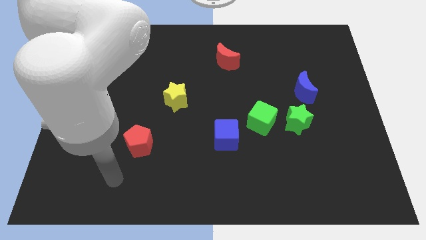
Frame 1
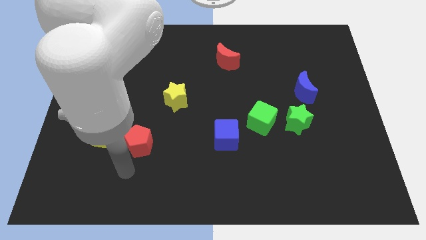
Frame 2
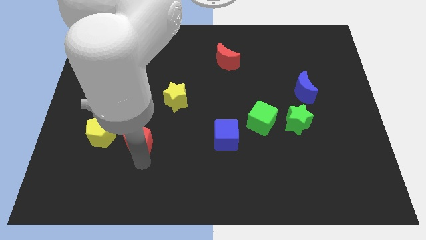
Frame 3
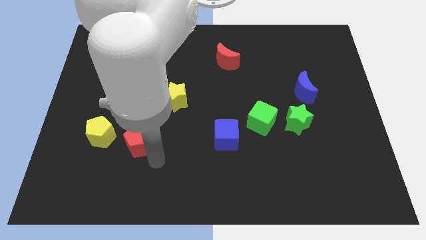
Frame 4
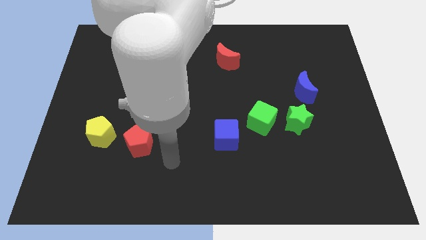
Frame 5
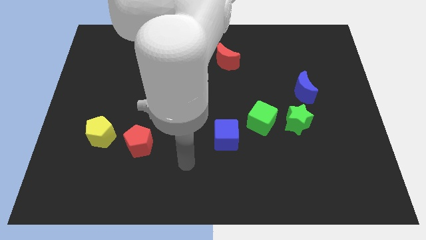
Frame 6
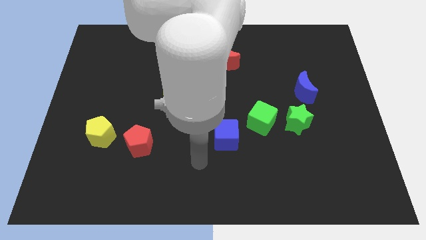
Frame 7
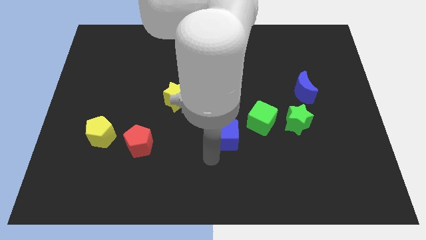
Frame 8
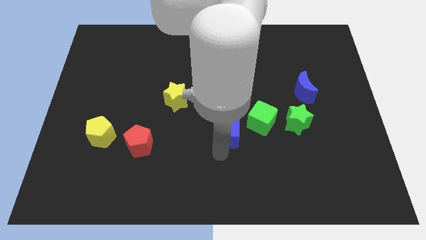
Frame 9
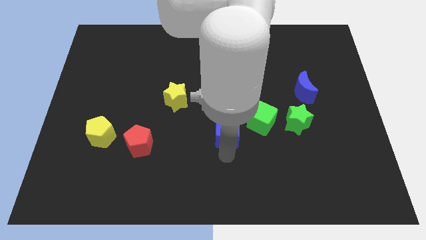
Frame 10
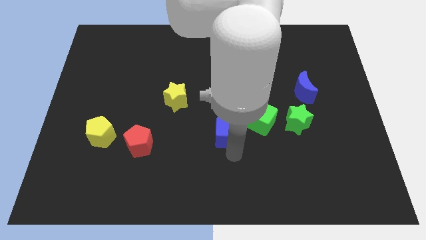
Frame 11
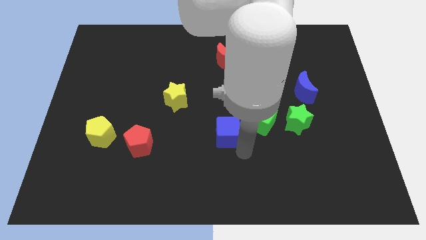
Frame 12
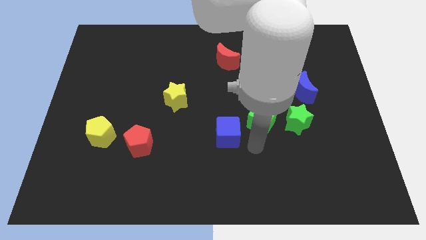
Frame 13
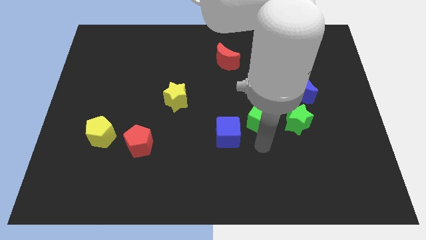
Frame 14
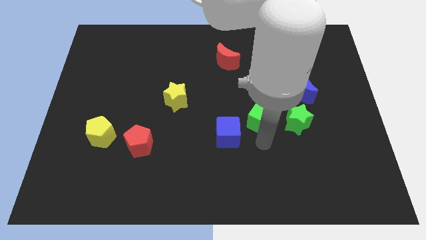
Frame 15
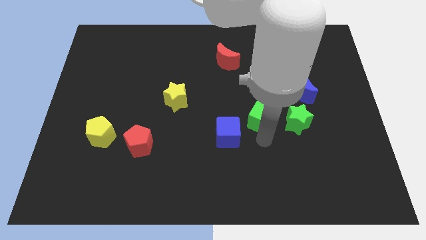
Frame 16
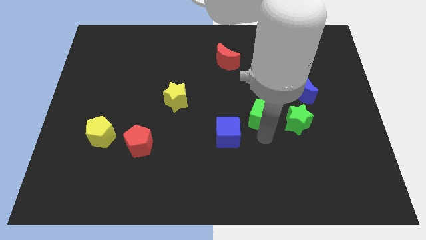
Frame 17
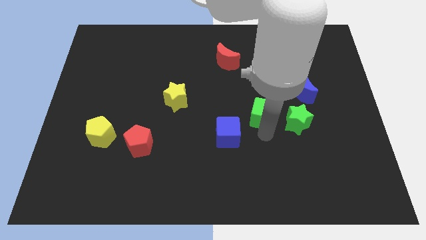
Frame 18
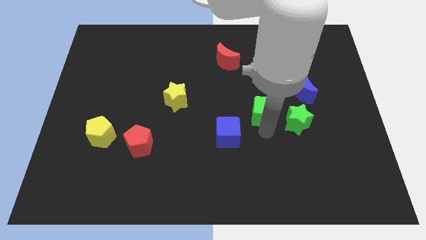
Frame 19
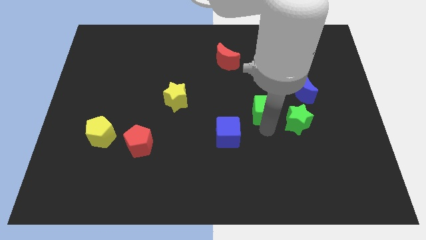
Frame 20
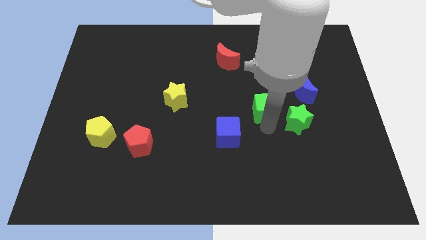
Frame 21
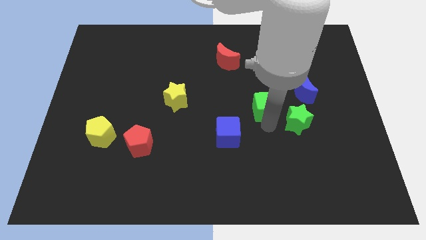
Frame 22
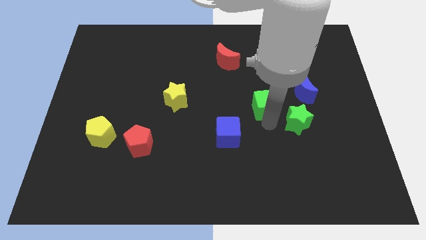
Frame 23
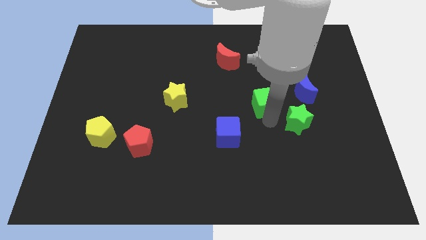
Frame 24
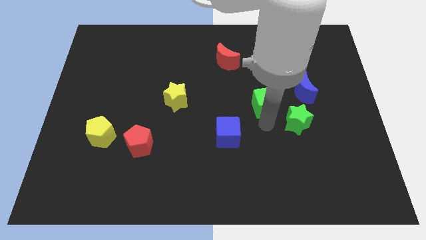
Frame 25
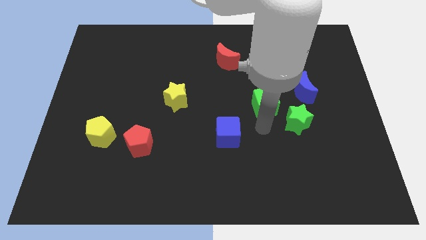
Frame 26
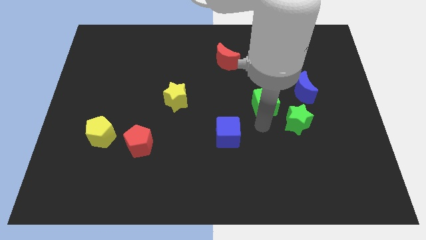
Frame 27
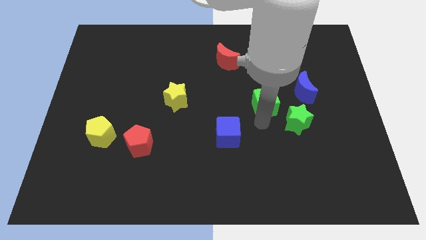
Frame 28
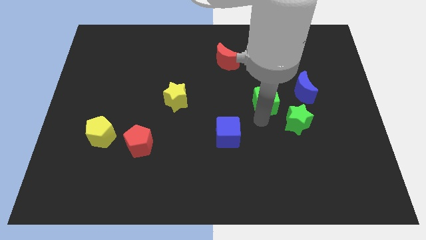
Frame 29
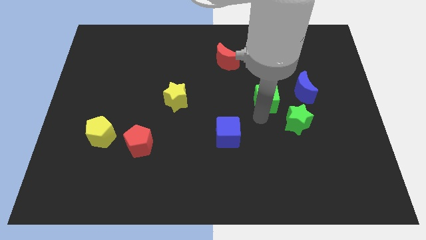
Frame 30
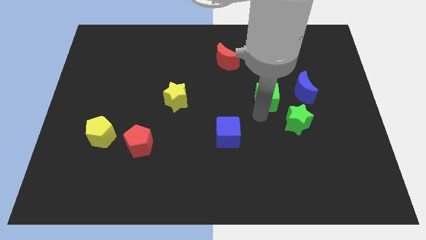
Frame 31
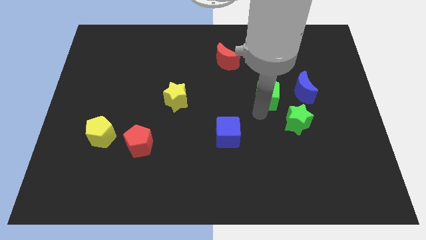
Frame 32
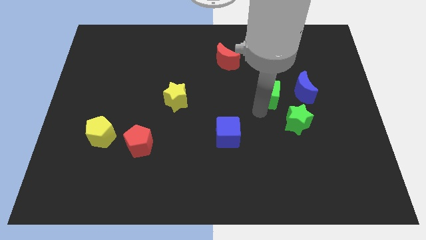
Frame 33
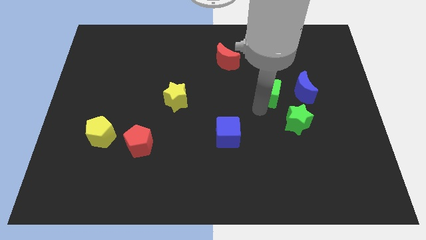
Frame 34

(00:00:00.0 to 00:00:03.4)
move the green cube away from the green star and blue cube

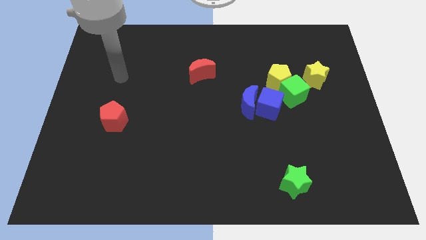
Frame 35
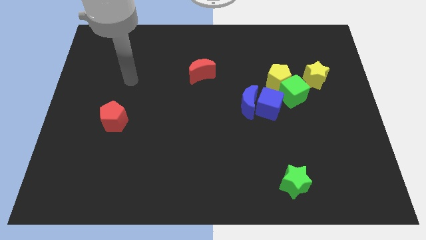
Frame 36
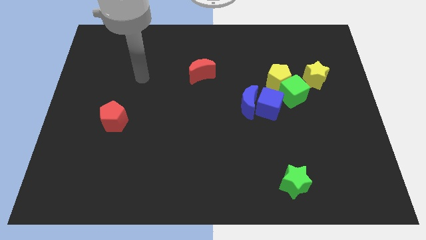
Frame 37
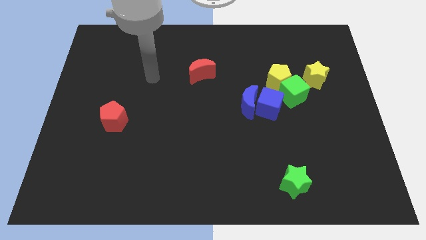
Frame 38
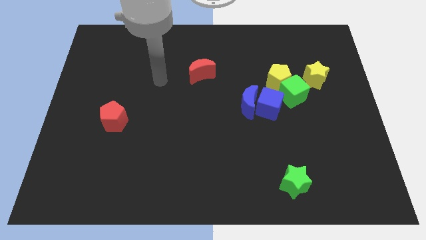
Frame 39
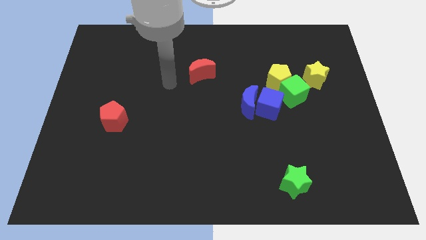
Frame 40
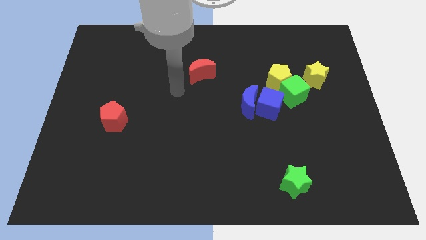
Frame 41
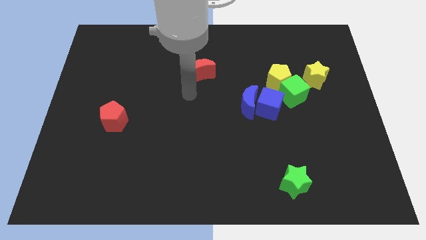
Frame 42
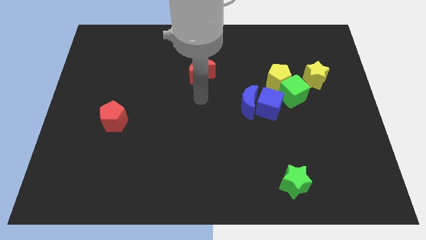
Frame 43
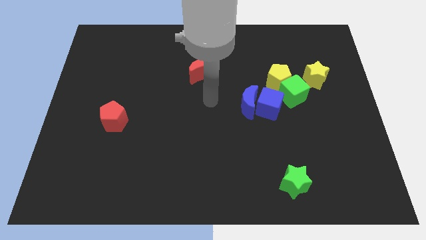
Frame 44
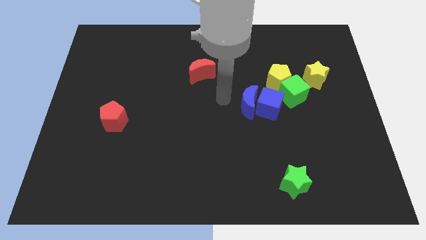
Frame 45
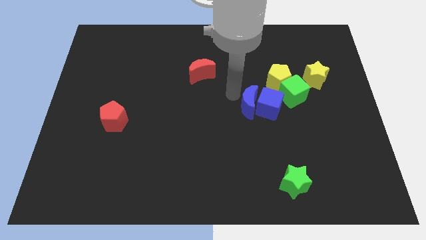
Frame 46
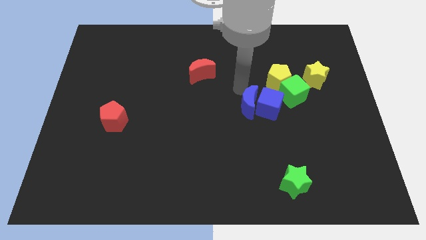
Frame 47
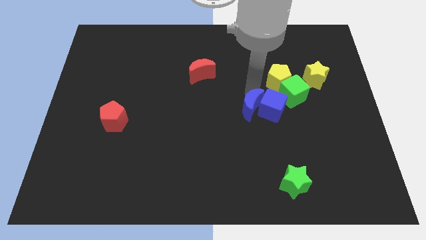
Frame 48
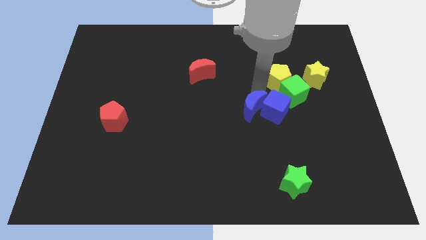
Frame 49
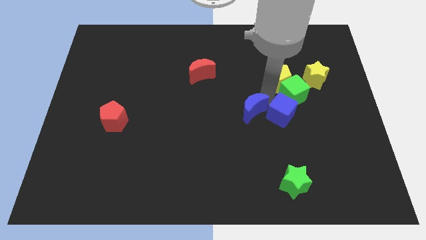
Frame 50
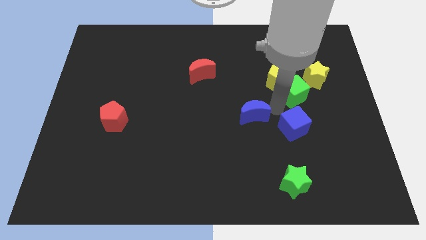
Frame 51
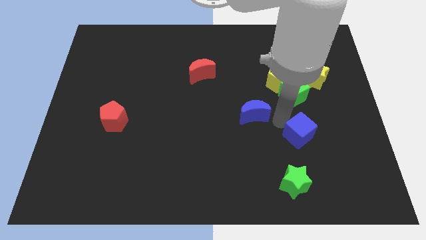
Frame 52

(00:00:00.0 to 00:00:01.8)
separate the blue moon from the blue cube

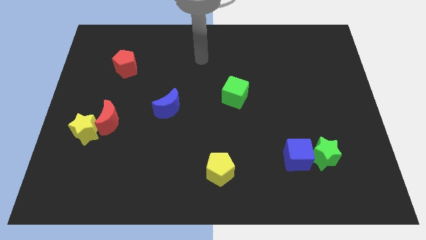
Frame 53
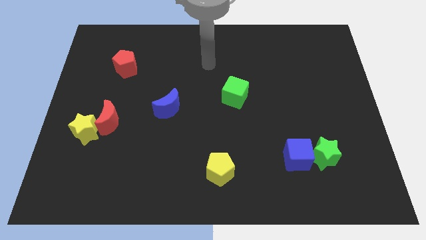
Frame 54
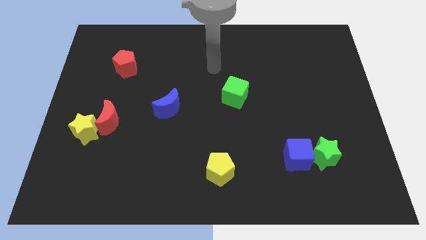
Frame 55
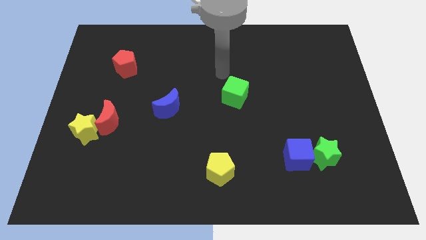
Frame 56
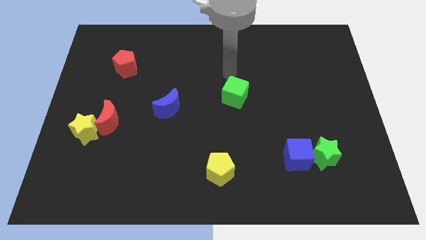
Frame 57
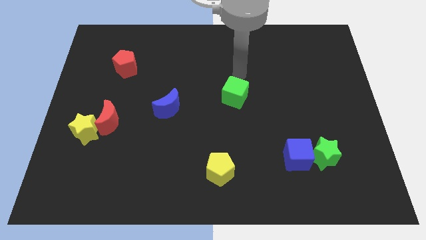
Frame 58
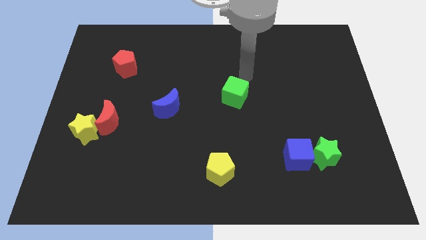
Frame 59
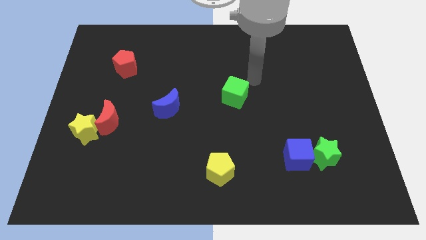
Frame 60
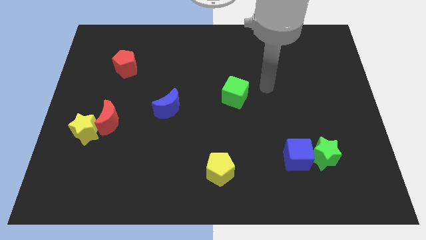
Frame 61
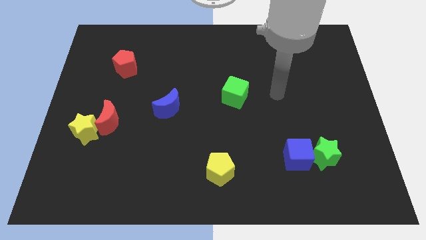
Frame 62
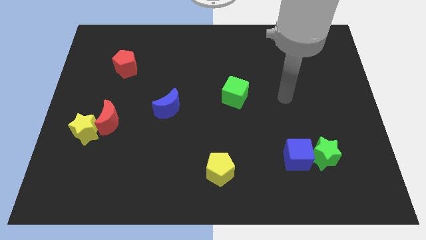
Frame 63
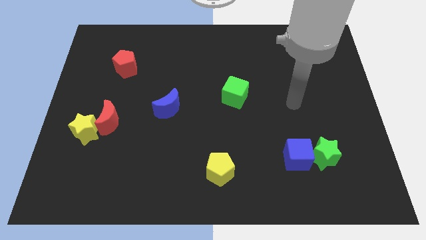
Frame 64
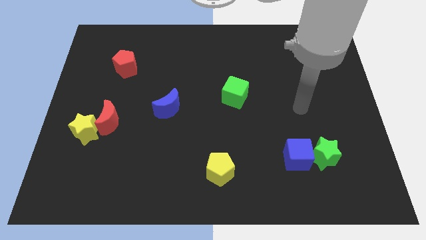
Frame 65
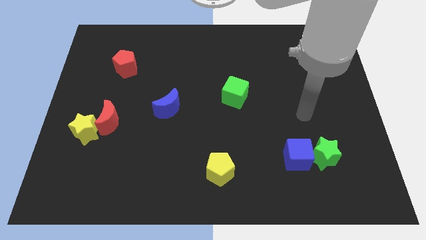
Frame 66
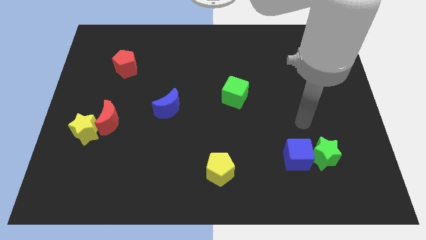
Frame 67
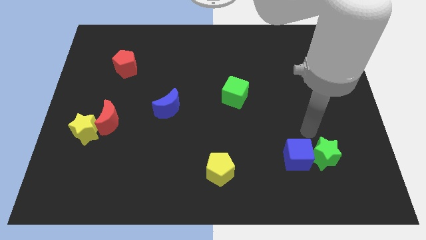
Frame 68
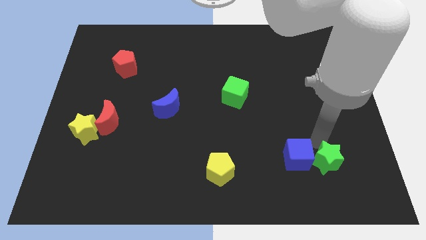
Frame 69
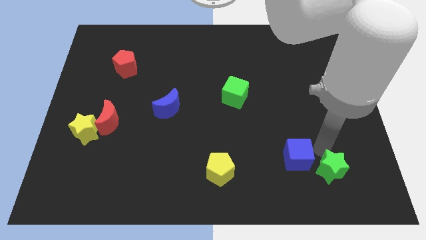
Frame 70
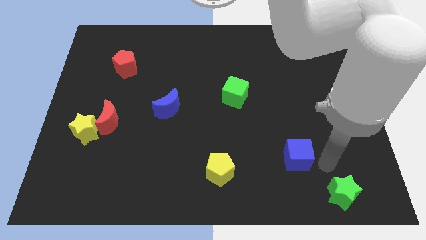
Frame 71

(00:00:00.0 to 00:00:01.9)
pull the blue cube apart from the green star

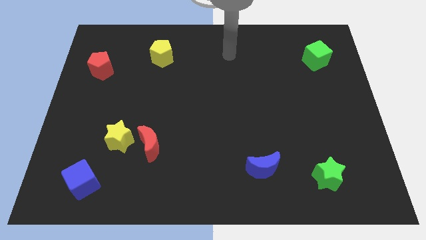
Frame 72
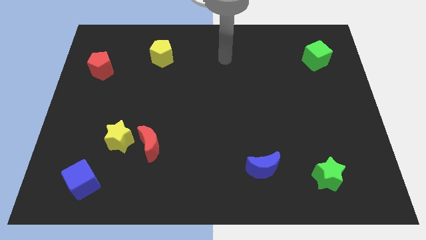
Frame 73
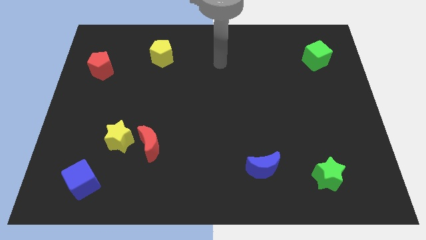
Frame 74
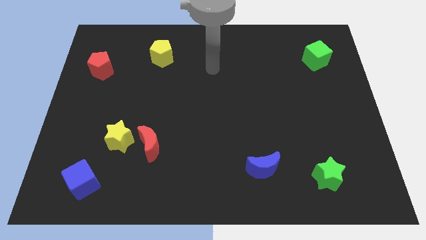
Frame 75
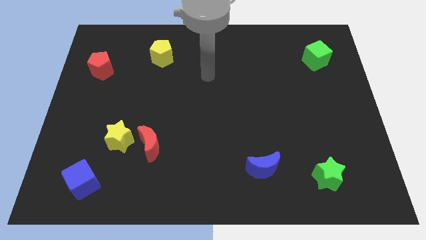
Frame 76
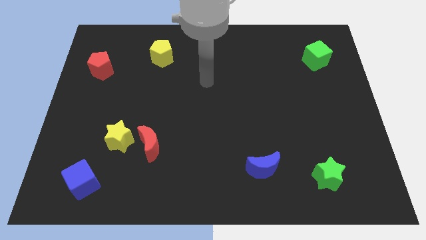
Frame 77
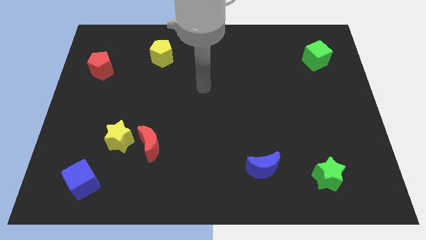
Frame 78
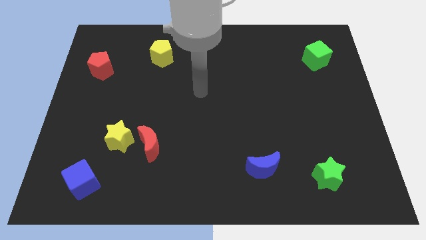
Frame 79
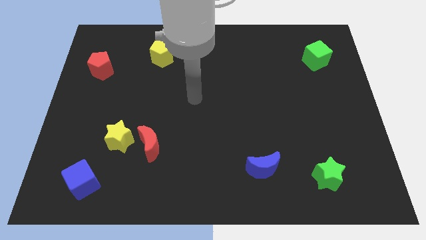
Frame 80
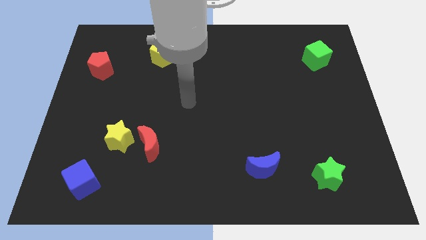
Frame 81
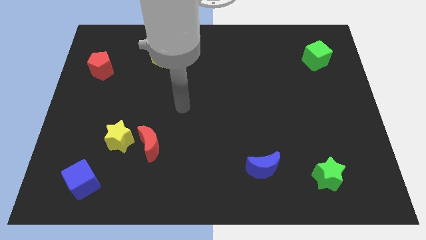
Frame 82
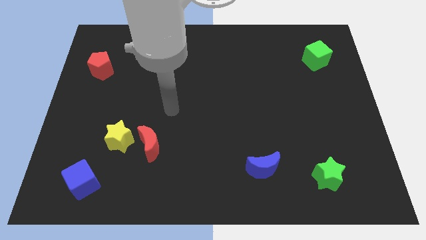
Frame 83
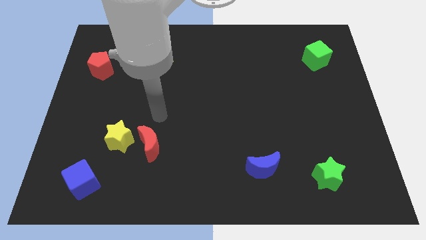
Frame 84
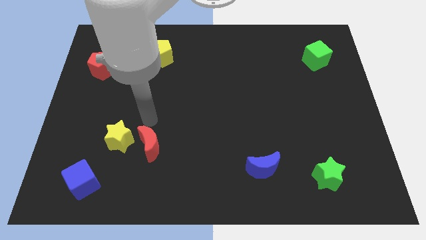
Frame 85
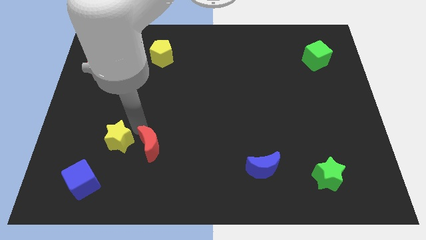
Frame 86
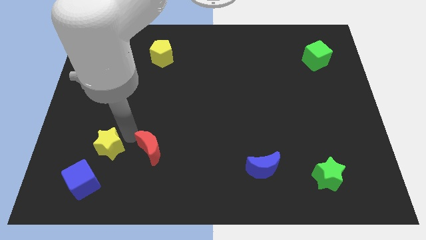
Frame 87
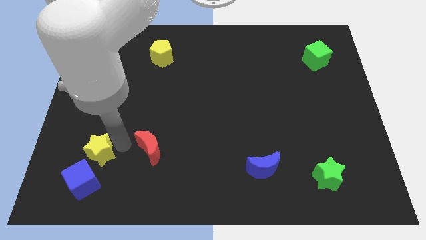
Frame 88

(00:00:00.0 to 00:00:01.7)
move the red moon away from the yellow star

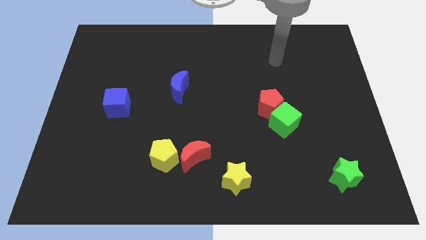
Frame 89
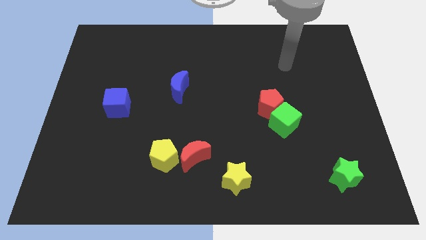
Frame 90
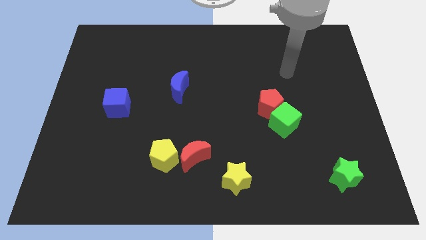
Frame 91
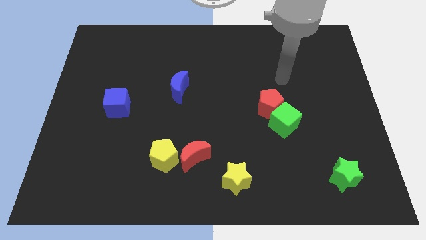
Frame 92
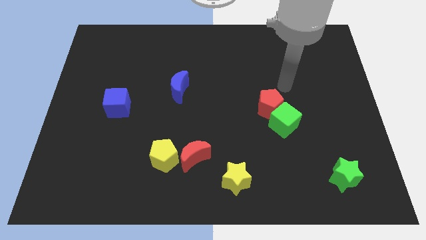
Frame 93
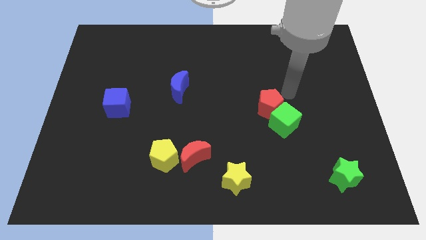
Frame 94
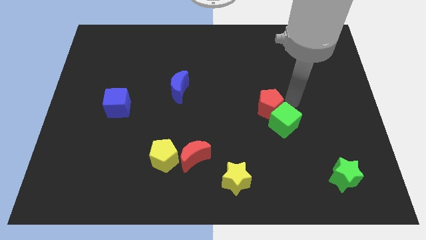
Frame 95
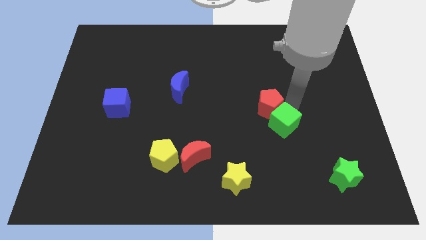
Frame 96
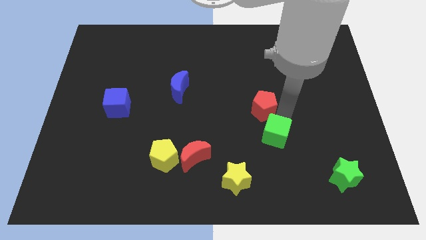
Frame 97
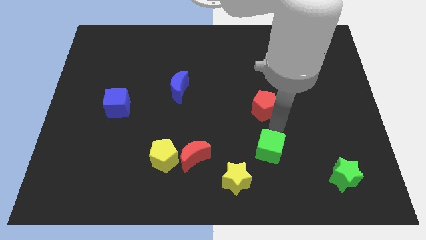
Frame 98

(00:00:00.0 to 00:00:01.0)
move the red pentagon away from the green cube
